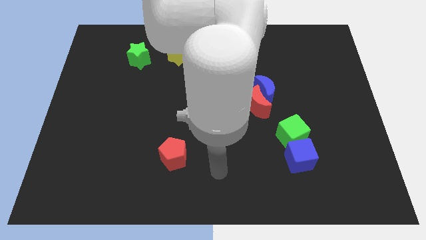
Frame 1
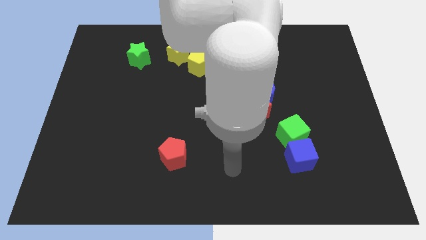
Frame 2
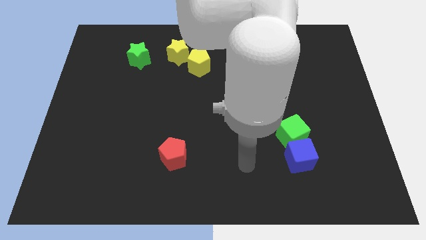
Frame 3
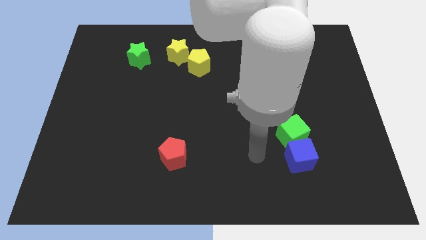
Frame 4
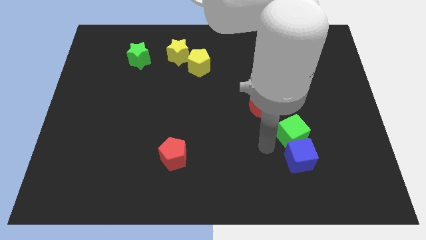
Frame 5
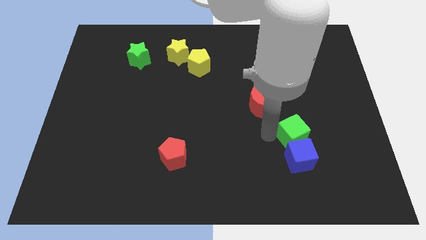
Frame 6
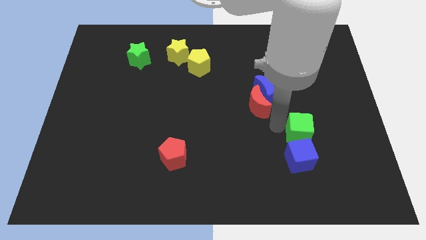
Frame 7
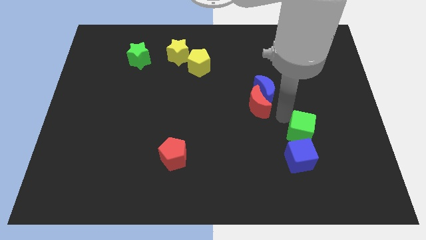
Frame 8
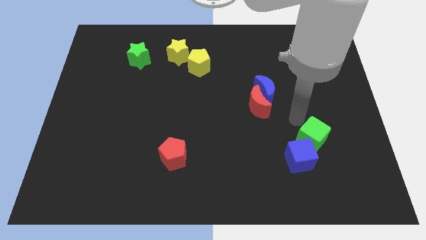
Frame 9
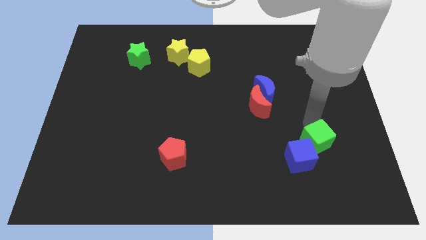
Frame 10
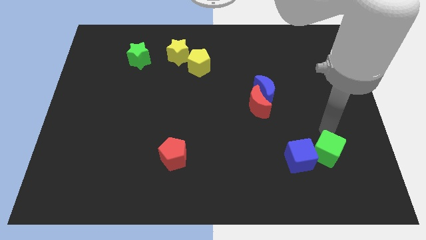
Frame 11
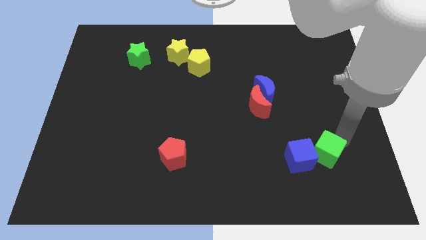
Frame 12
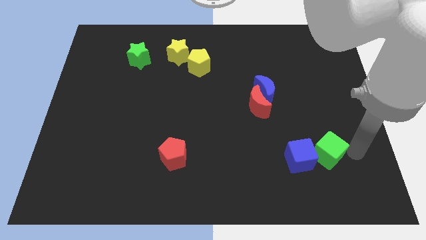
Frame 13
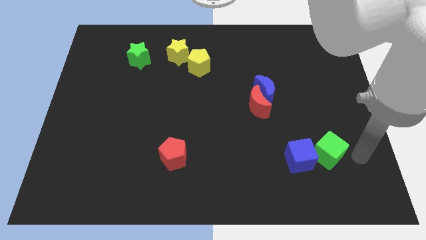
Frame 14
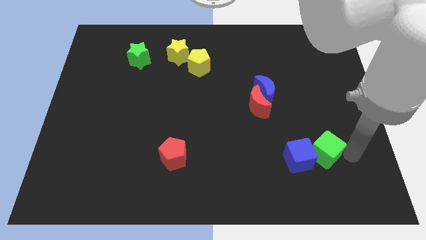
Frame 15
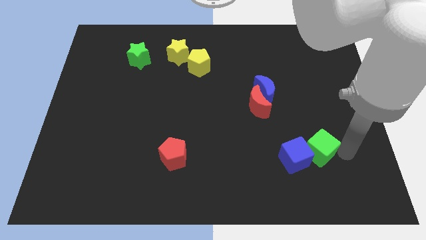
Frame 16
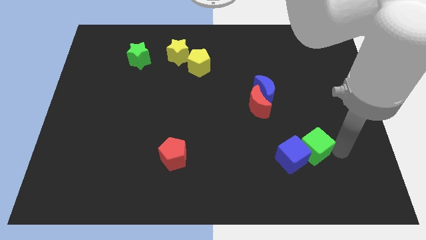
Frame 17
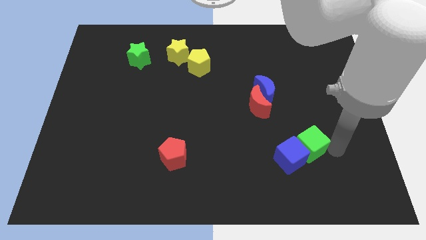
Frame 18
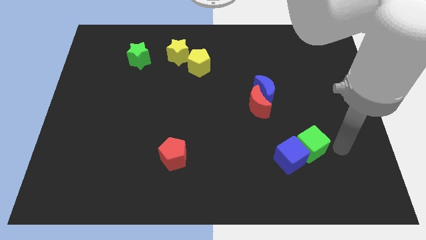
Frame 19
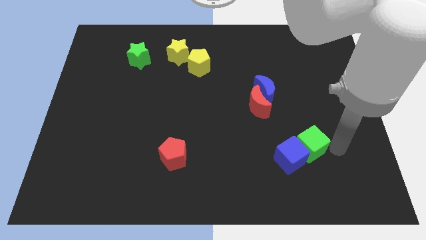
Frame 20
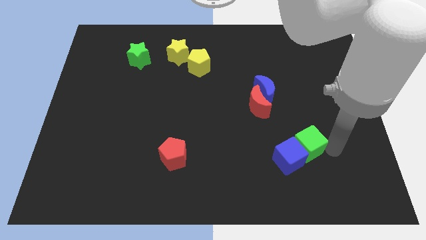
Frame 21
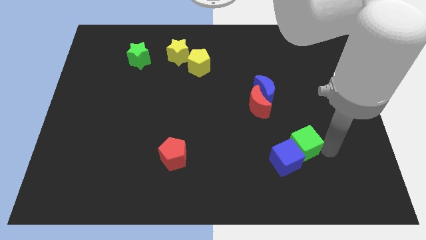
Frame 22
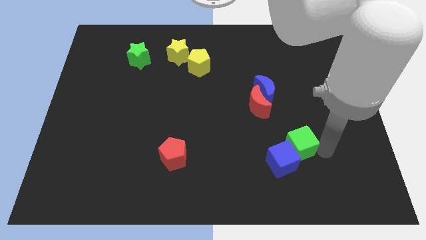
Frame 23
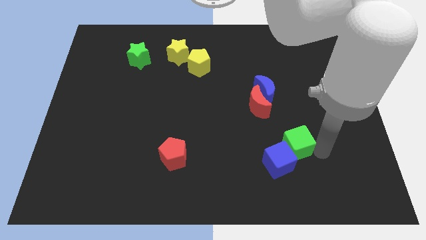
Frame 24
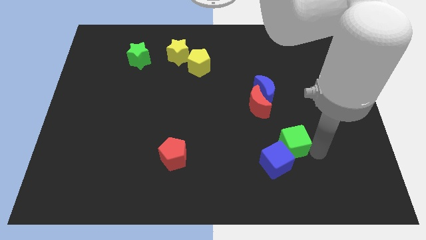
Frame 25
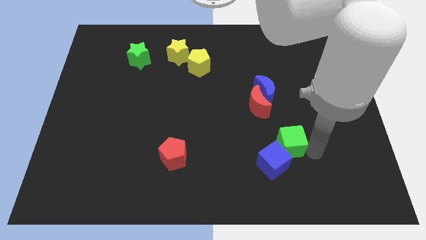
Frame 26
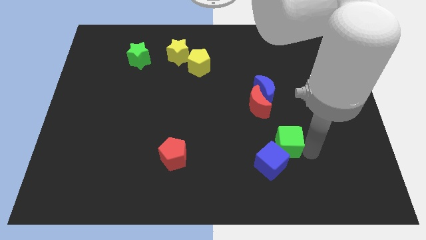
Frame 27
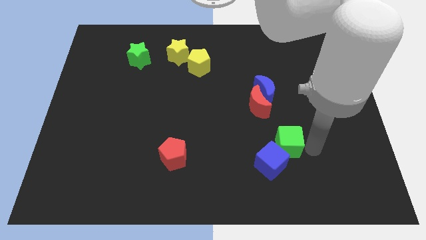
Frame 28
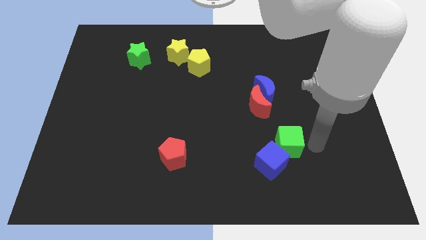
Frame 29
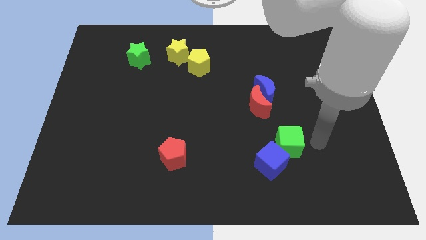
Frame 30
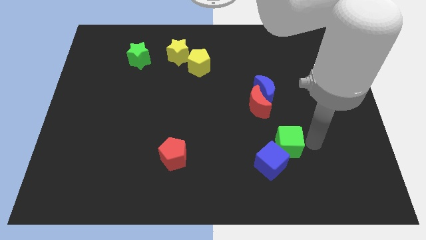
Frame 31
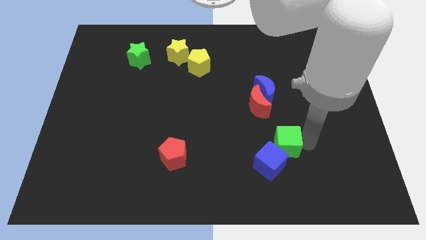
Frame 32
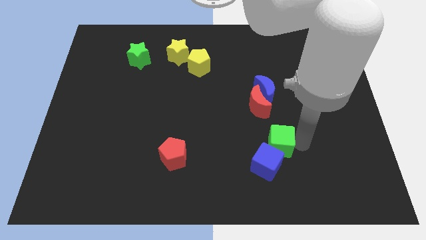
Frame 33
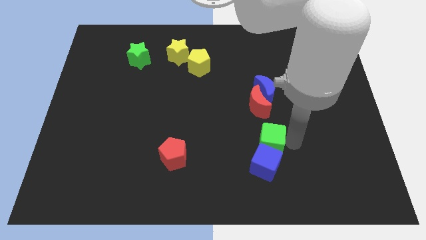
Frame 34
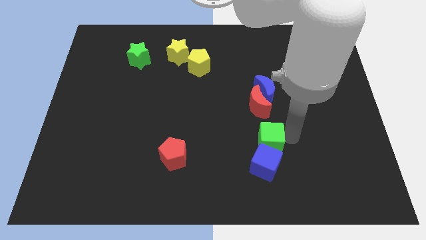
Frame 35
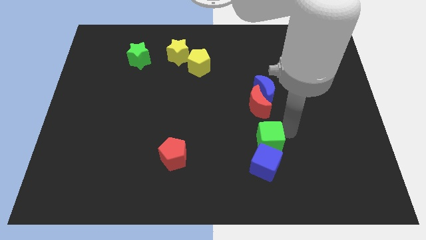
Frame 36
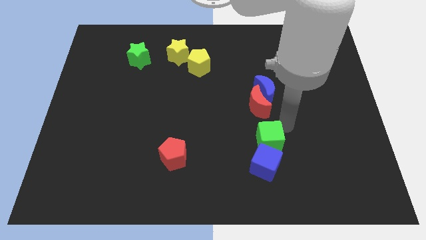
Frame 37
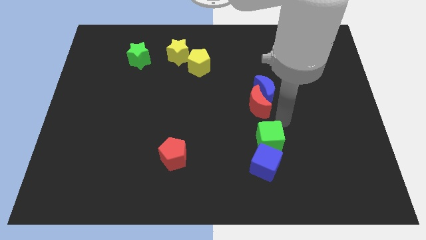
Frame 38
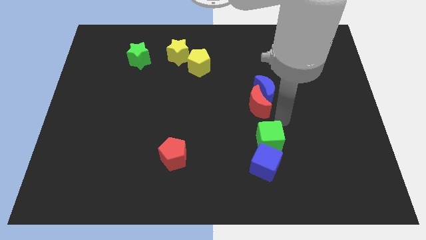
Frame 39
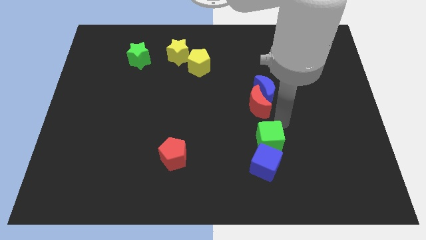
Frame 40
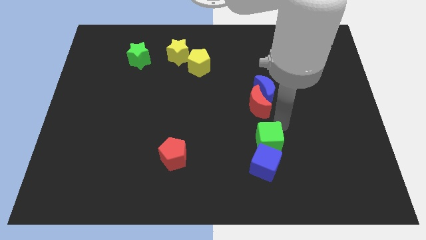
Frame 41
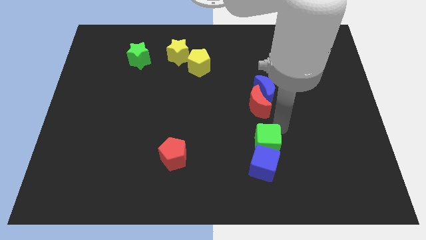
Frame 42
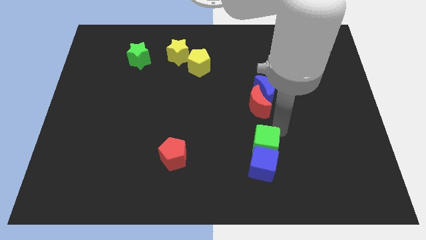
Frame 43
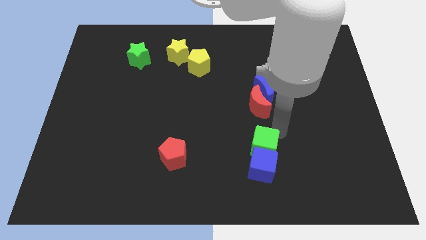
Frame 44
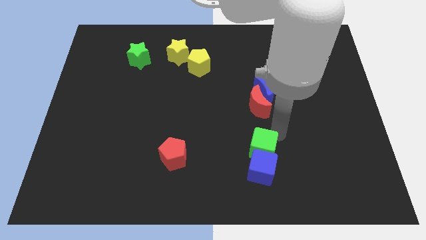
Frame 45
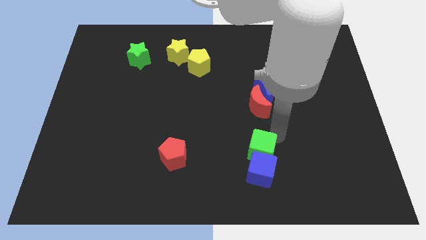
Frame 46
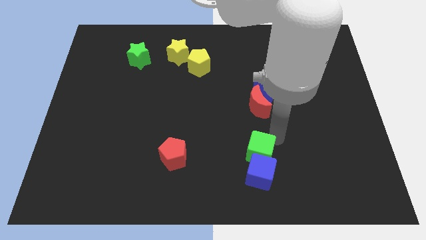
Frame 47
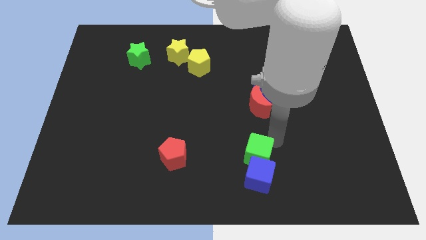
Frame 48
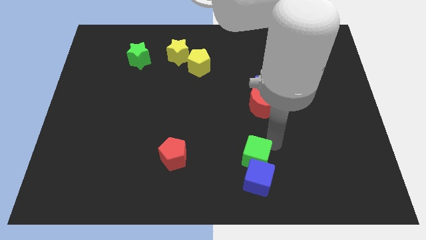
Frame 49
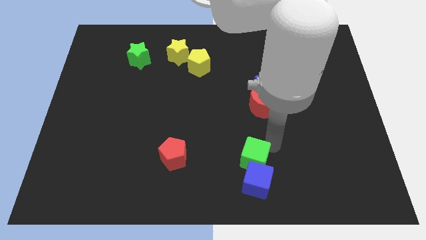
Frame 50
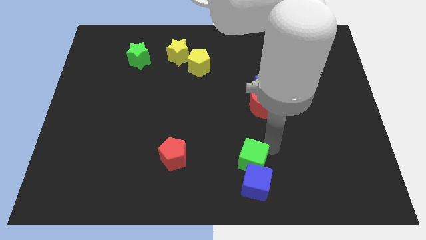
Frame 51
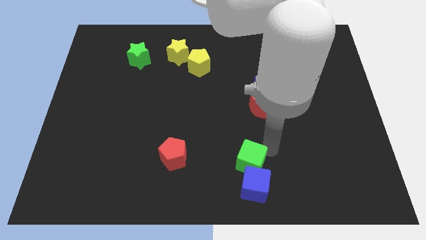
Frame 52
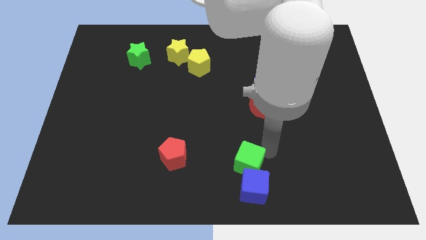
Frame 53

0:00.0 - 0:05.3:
slide the green cube to the bottom

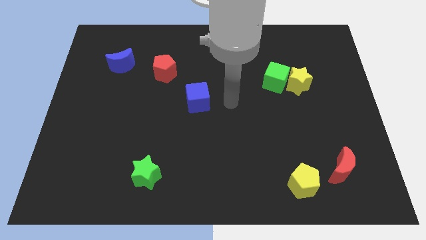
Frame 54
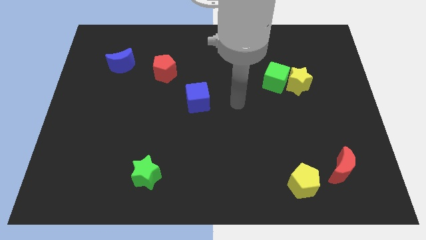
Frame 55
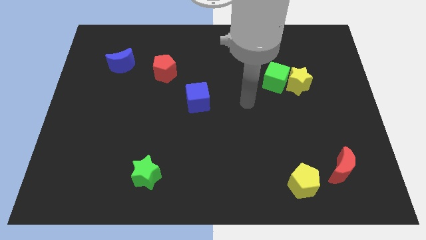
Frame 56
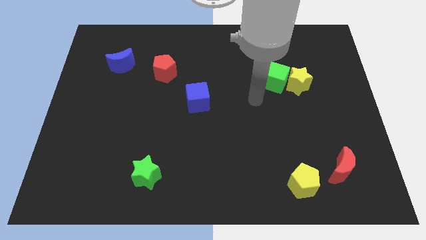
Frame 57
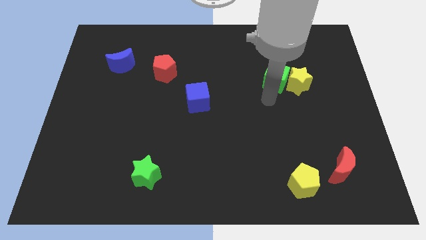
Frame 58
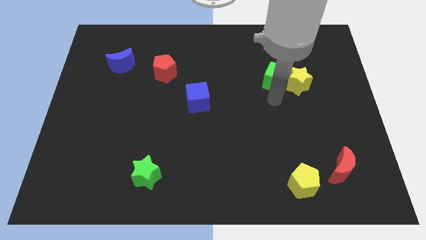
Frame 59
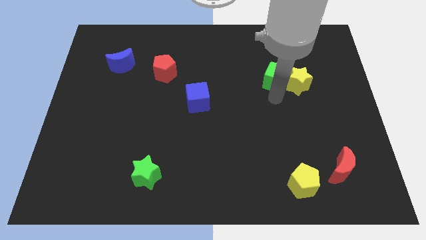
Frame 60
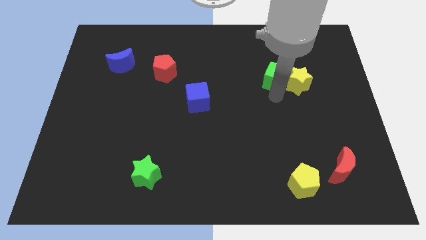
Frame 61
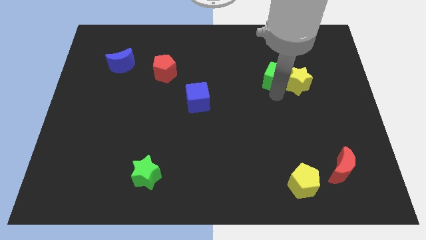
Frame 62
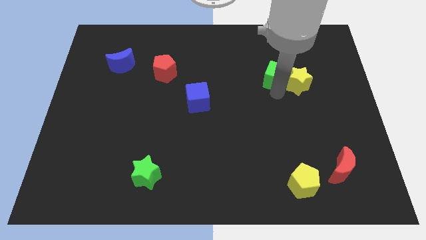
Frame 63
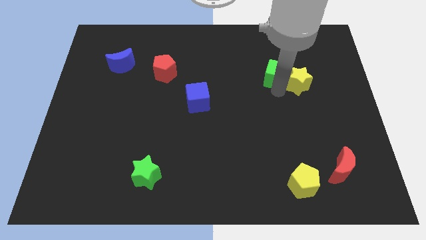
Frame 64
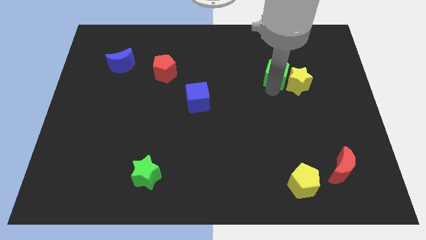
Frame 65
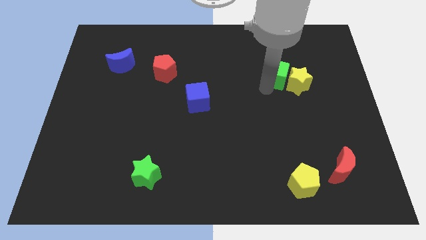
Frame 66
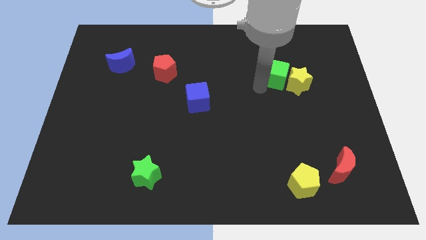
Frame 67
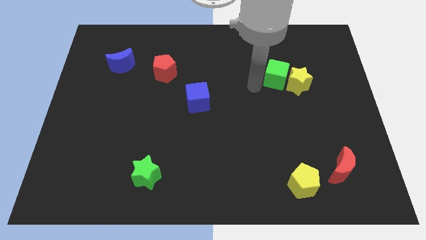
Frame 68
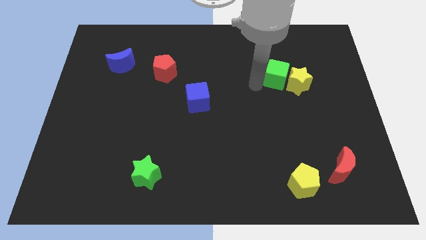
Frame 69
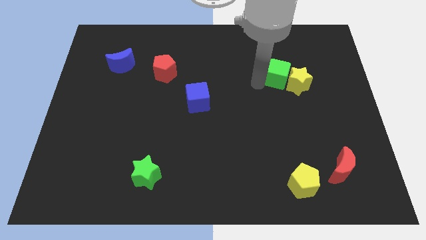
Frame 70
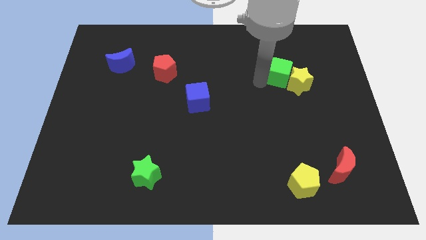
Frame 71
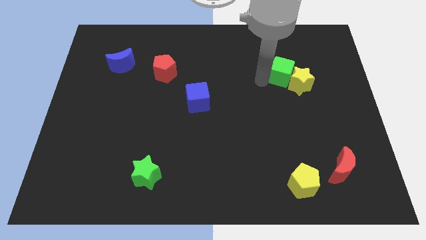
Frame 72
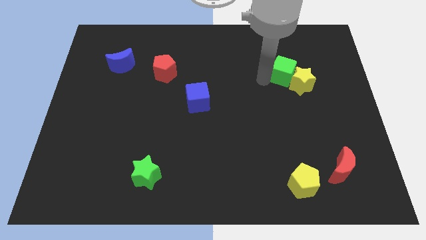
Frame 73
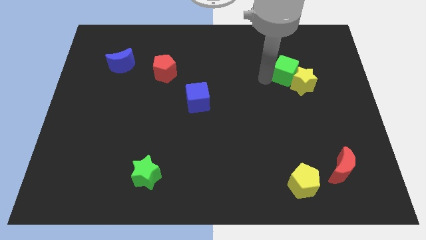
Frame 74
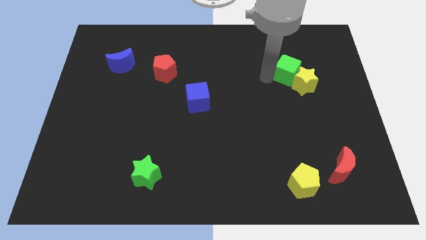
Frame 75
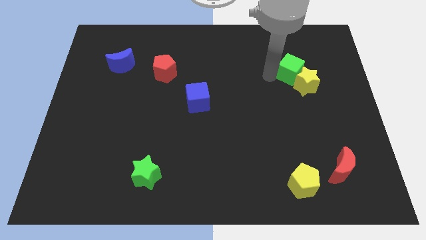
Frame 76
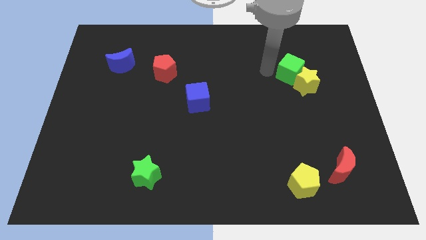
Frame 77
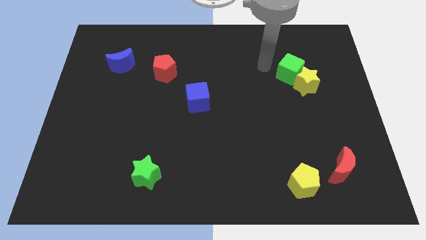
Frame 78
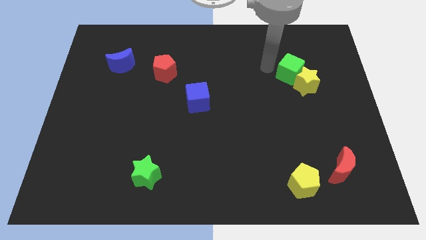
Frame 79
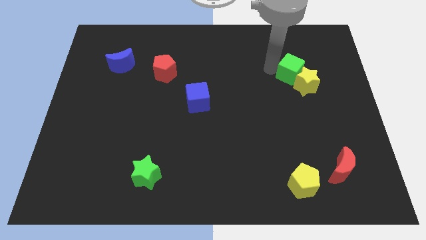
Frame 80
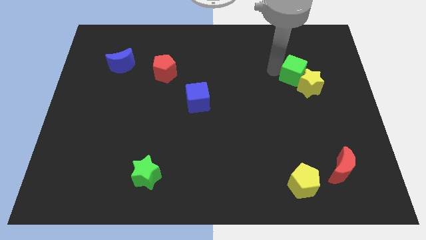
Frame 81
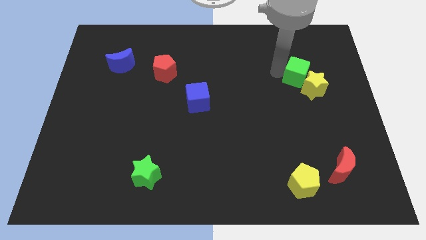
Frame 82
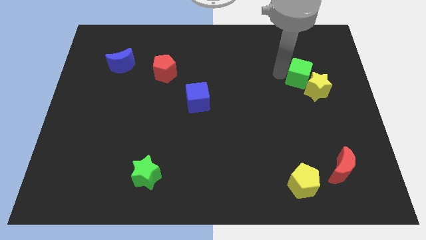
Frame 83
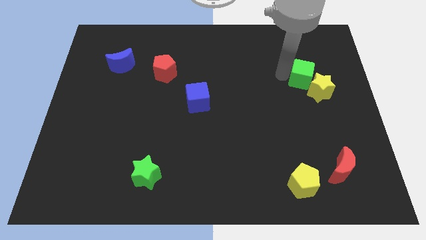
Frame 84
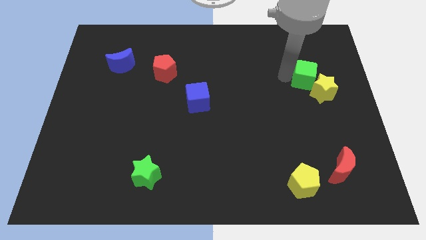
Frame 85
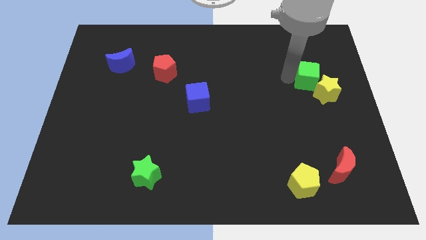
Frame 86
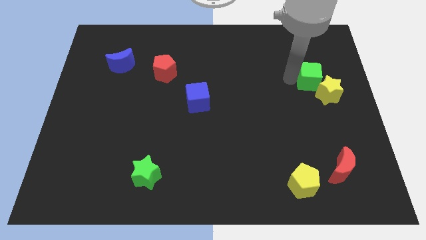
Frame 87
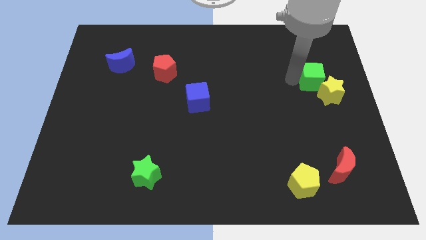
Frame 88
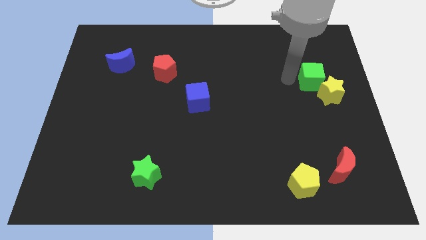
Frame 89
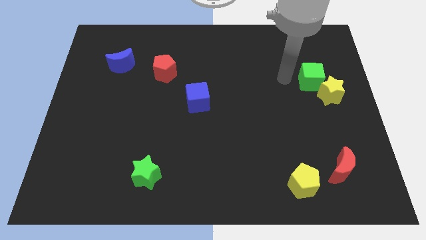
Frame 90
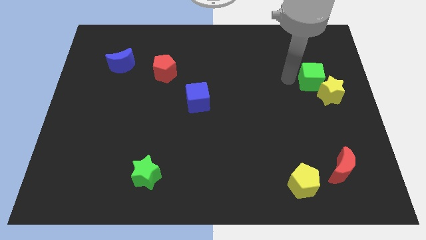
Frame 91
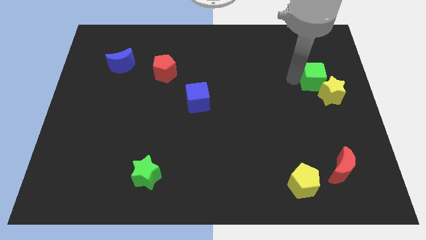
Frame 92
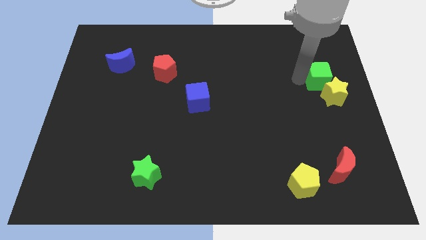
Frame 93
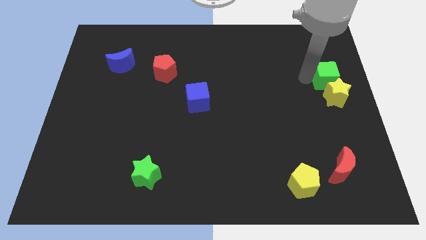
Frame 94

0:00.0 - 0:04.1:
put the green cube to the right side of the board
